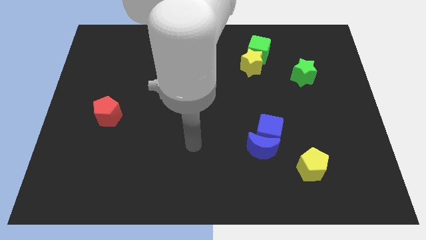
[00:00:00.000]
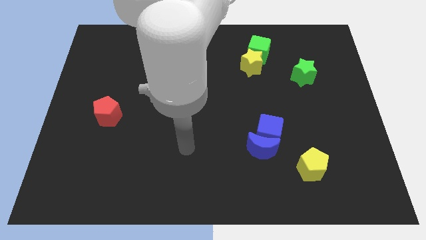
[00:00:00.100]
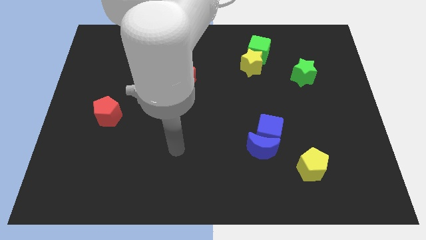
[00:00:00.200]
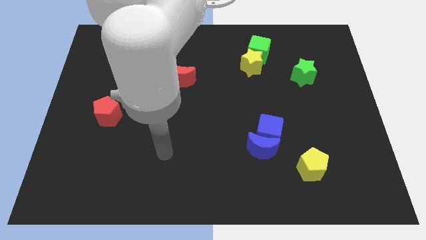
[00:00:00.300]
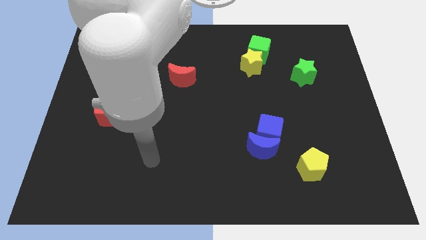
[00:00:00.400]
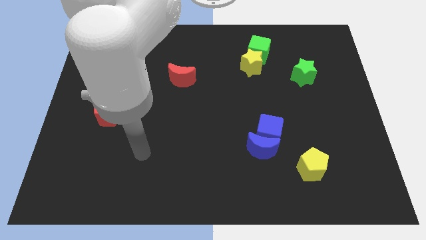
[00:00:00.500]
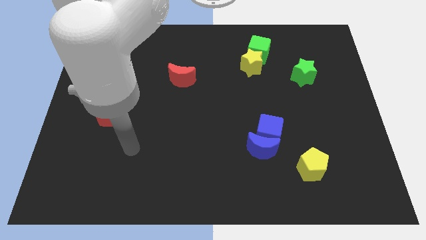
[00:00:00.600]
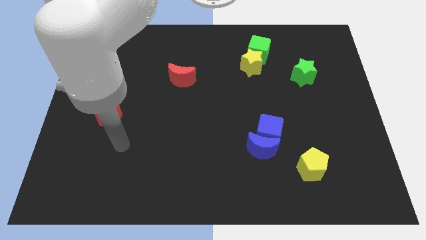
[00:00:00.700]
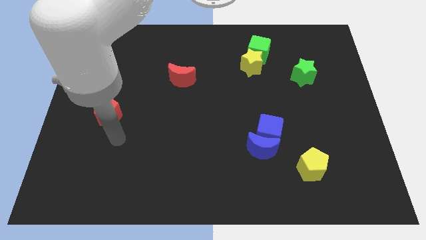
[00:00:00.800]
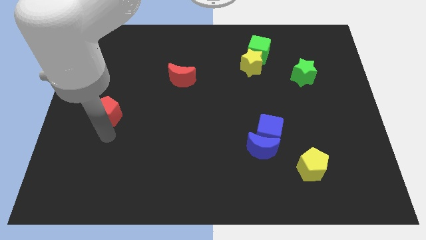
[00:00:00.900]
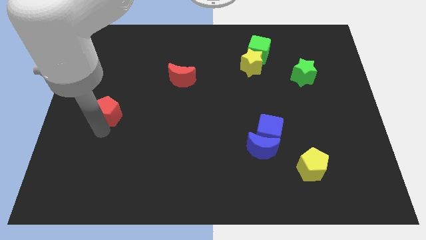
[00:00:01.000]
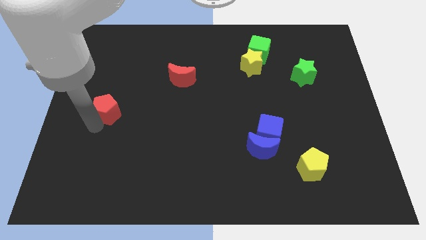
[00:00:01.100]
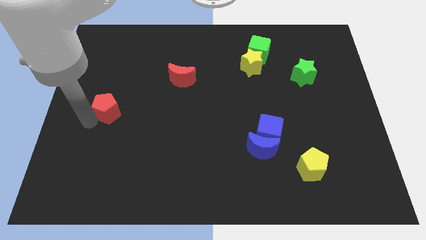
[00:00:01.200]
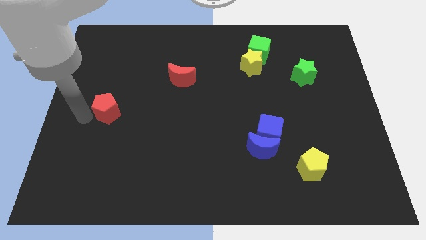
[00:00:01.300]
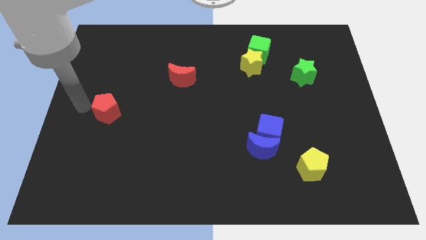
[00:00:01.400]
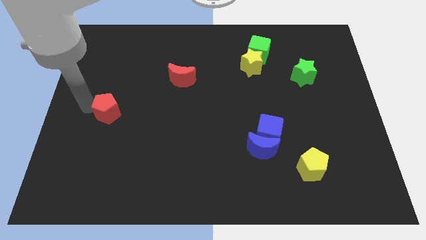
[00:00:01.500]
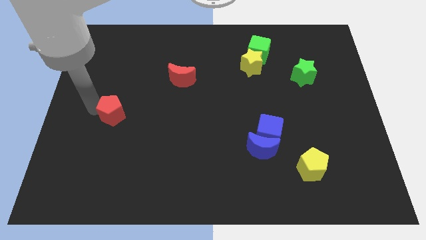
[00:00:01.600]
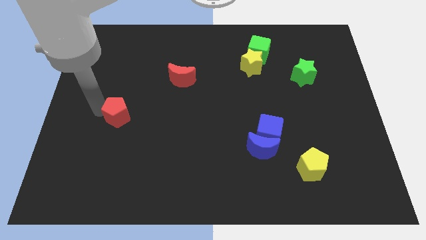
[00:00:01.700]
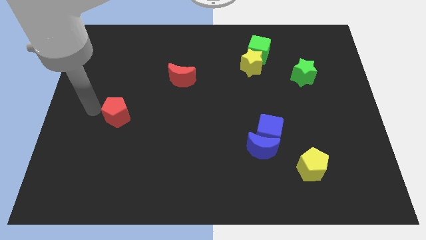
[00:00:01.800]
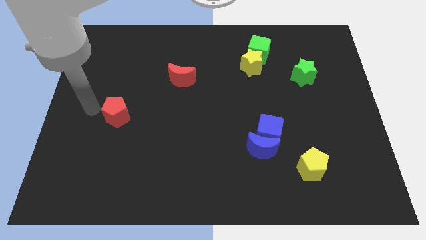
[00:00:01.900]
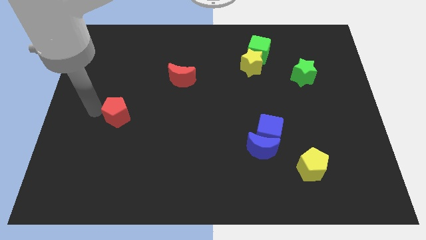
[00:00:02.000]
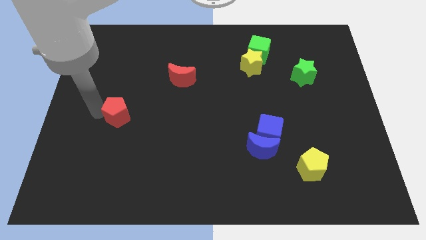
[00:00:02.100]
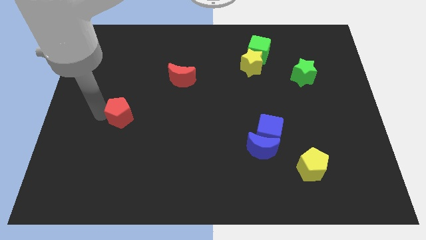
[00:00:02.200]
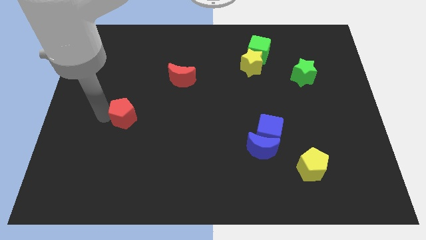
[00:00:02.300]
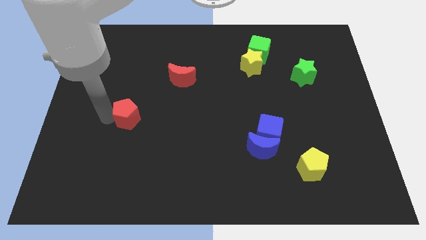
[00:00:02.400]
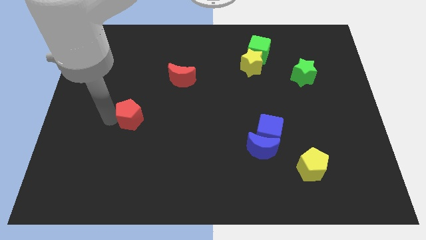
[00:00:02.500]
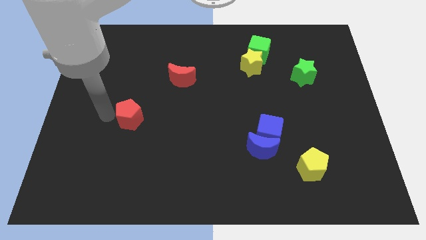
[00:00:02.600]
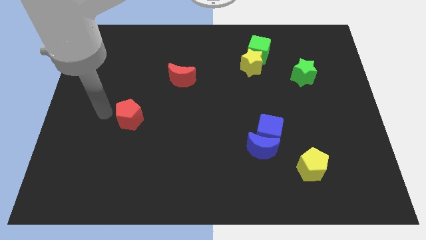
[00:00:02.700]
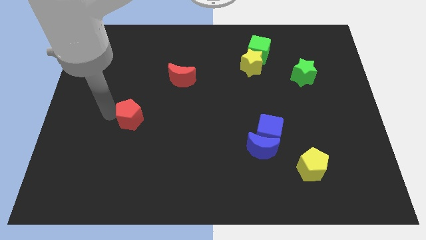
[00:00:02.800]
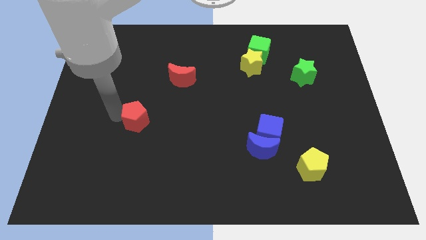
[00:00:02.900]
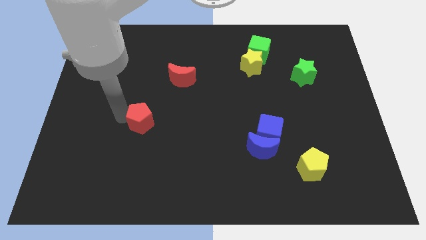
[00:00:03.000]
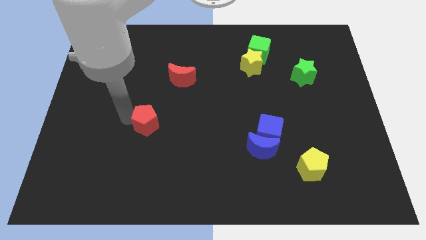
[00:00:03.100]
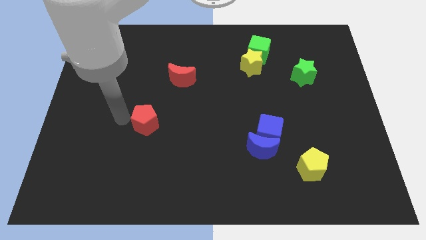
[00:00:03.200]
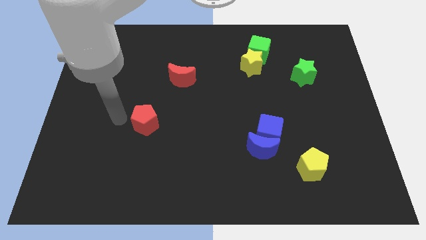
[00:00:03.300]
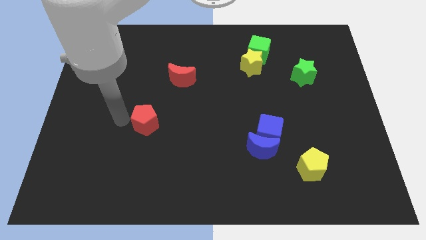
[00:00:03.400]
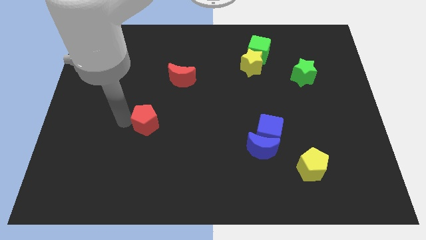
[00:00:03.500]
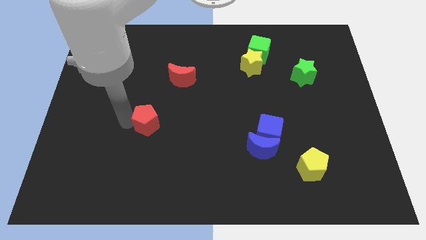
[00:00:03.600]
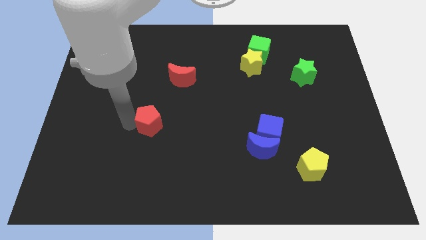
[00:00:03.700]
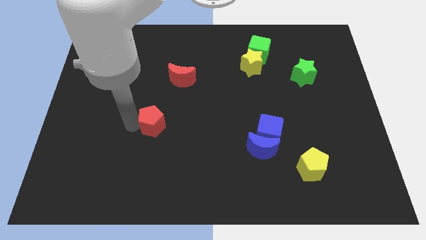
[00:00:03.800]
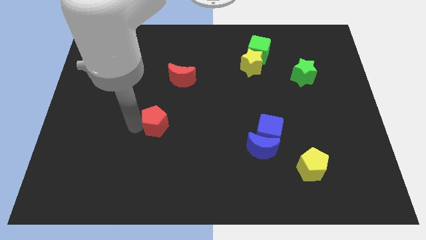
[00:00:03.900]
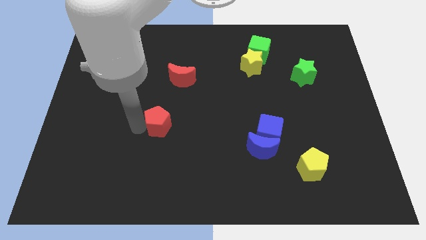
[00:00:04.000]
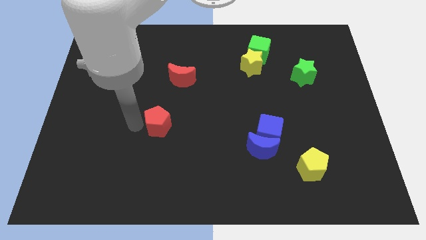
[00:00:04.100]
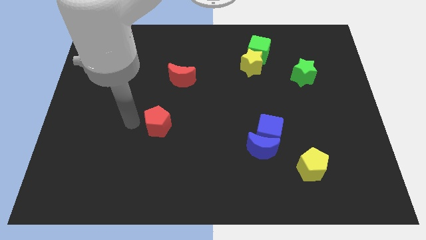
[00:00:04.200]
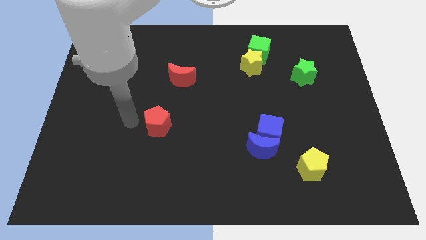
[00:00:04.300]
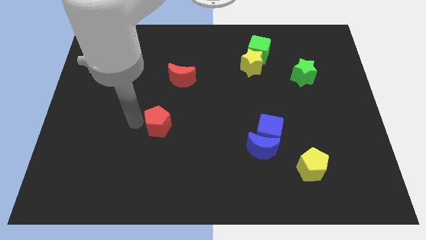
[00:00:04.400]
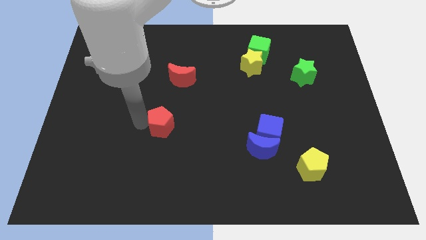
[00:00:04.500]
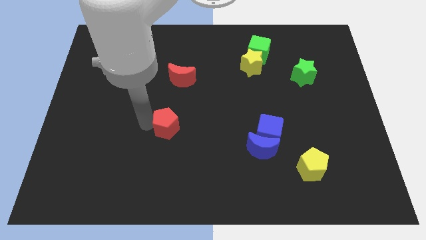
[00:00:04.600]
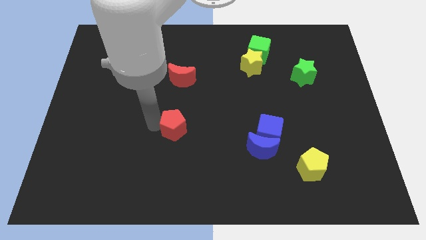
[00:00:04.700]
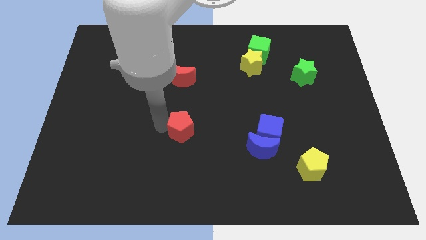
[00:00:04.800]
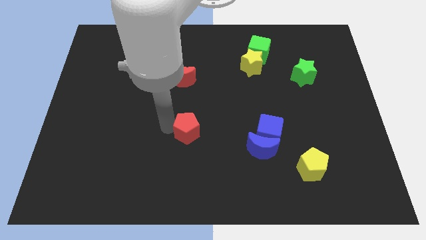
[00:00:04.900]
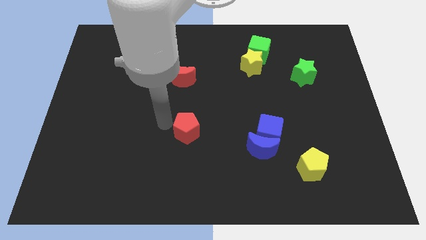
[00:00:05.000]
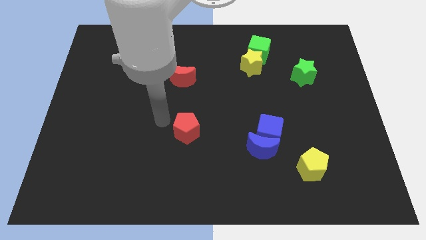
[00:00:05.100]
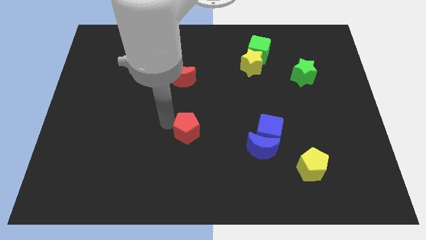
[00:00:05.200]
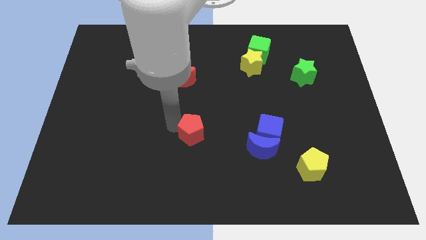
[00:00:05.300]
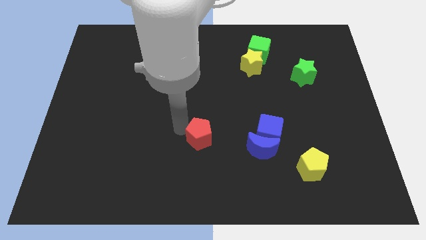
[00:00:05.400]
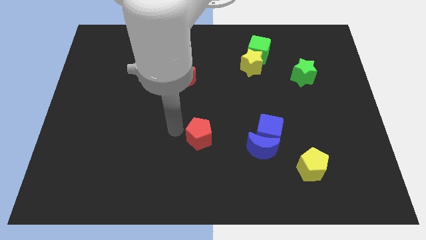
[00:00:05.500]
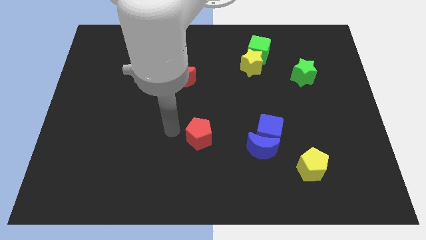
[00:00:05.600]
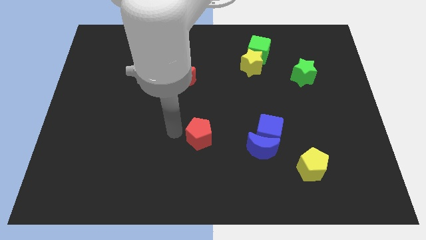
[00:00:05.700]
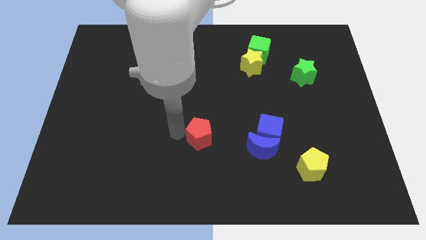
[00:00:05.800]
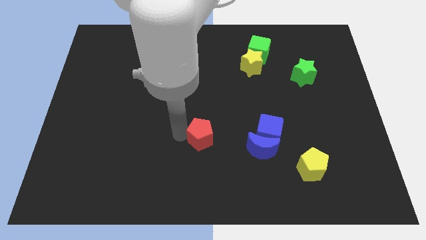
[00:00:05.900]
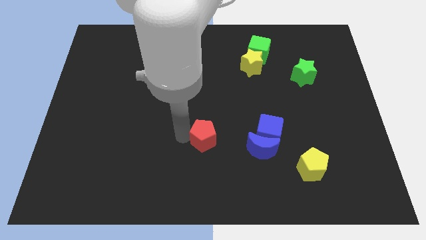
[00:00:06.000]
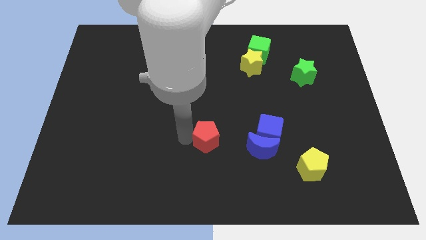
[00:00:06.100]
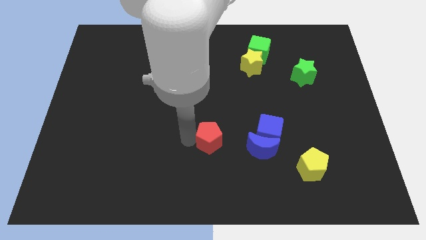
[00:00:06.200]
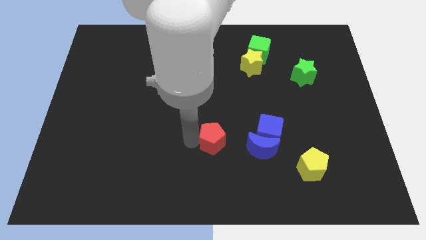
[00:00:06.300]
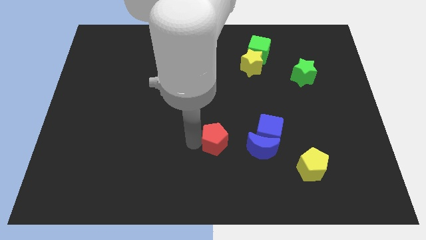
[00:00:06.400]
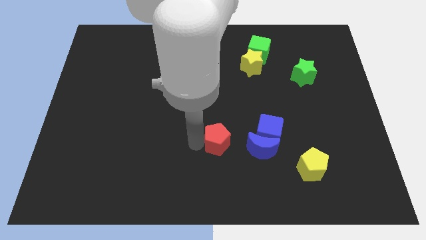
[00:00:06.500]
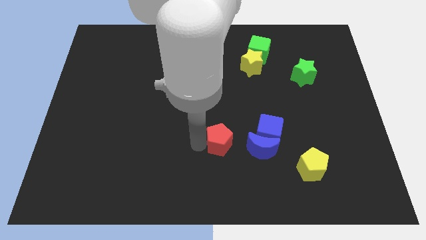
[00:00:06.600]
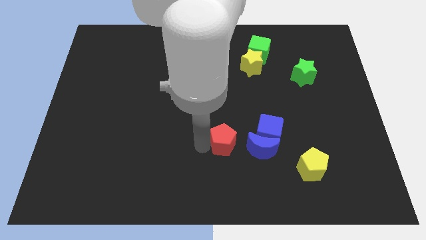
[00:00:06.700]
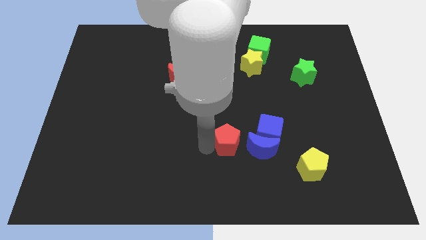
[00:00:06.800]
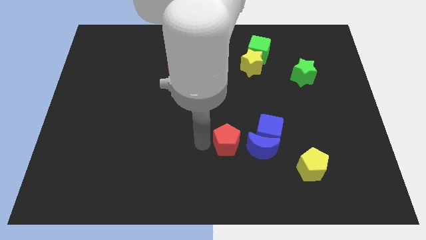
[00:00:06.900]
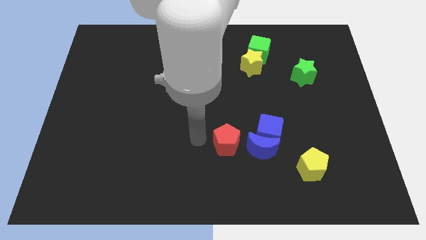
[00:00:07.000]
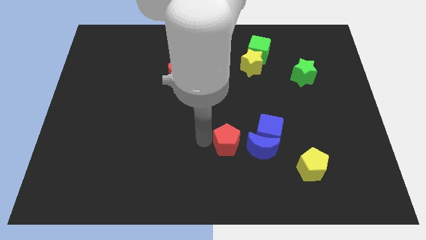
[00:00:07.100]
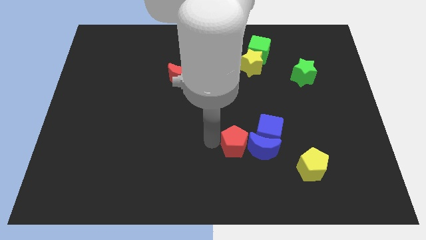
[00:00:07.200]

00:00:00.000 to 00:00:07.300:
slide the red pentagon close to the blue moon
